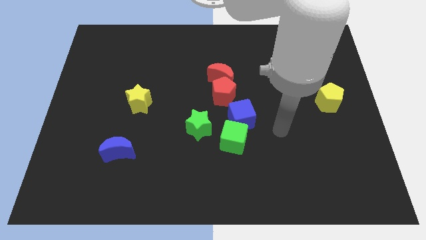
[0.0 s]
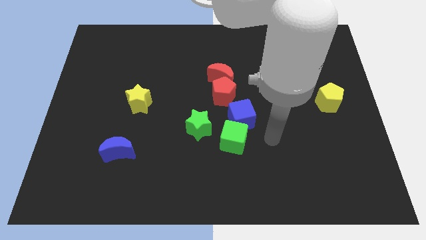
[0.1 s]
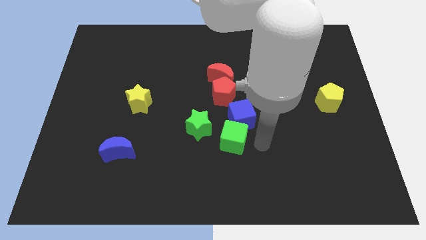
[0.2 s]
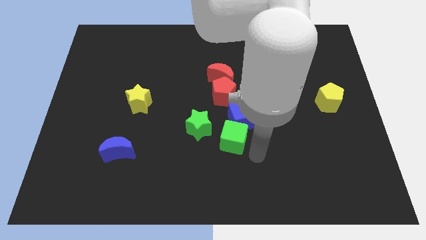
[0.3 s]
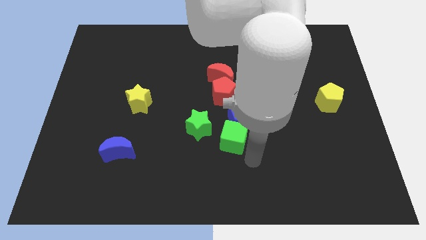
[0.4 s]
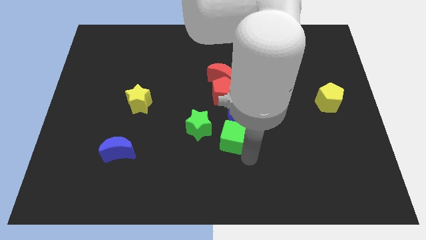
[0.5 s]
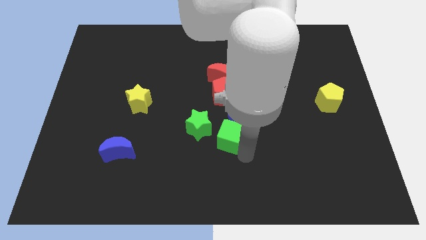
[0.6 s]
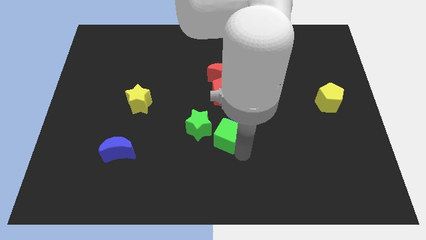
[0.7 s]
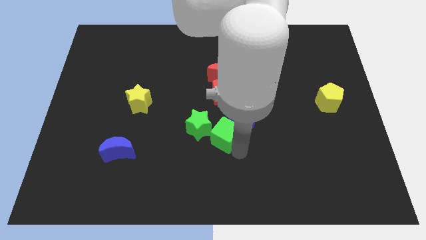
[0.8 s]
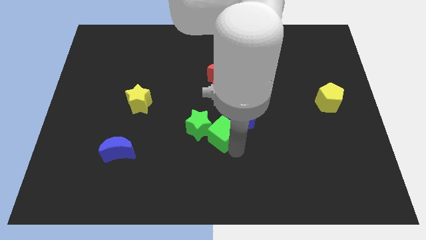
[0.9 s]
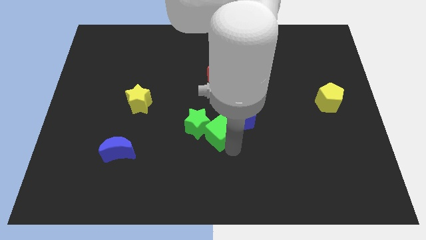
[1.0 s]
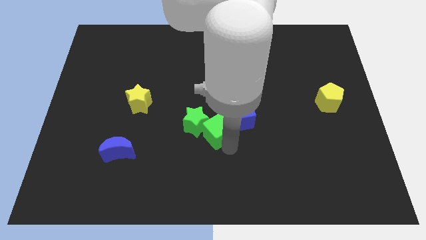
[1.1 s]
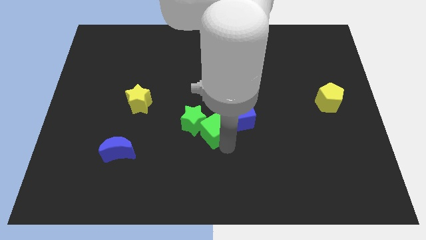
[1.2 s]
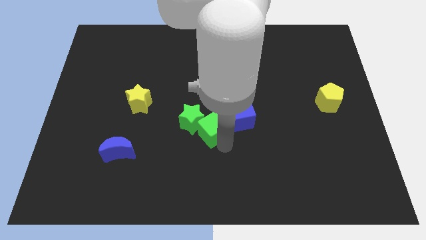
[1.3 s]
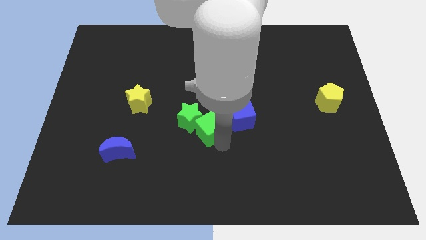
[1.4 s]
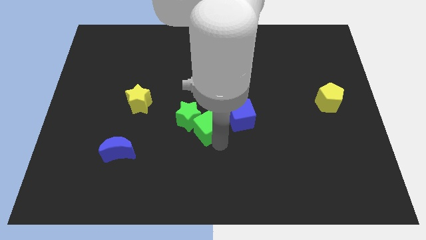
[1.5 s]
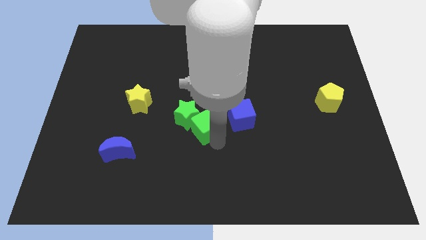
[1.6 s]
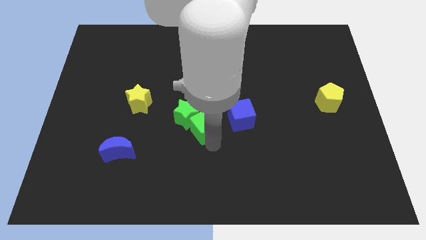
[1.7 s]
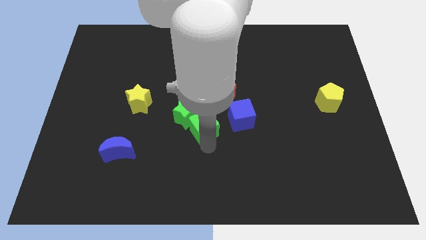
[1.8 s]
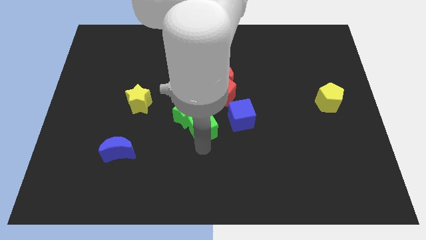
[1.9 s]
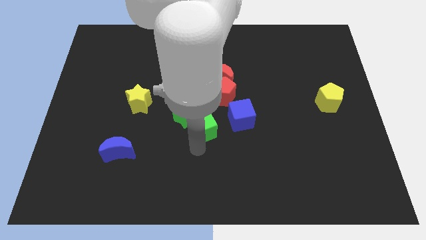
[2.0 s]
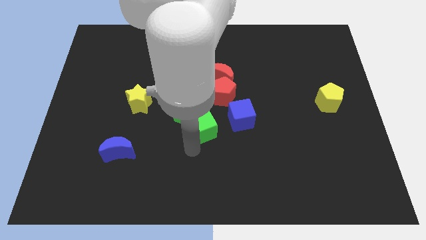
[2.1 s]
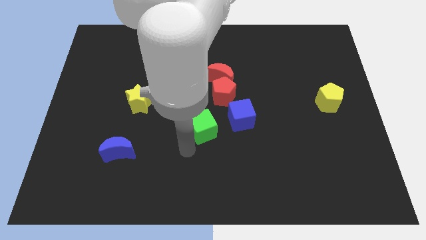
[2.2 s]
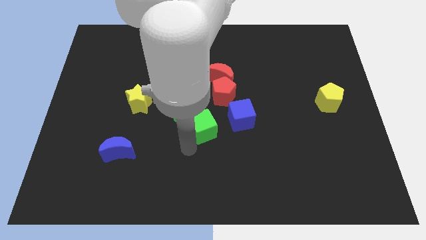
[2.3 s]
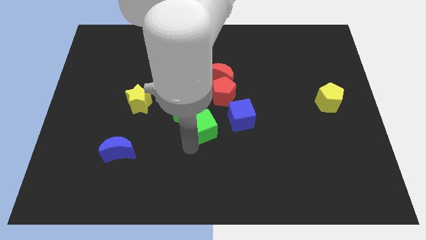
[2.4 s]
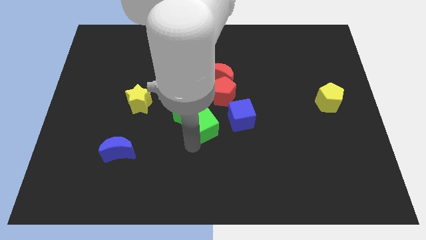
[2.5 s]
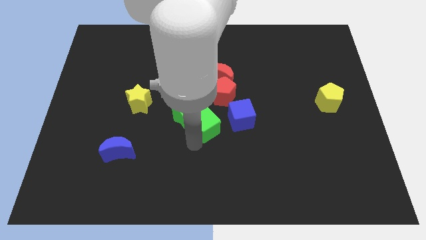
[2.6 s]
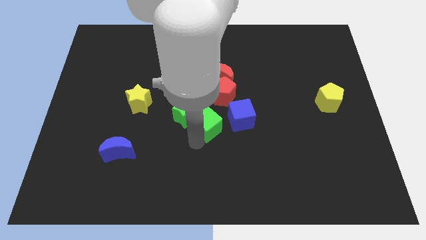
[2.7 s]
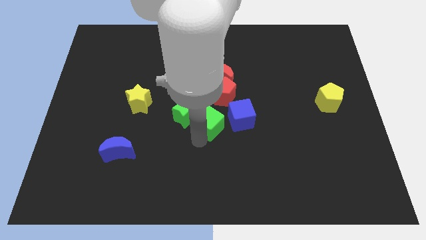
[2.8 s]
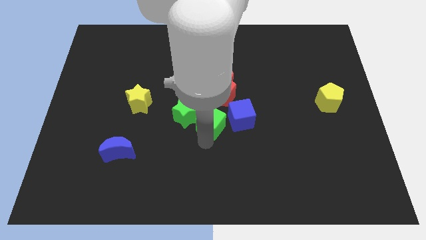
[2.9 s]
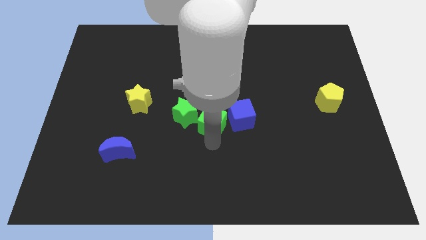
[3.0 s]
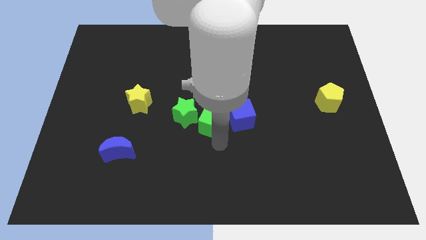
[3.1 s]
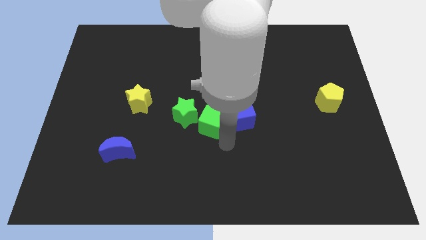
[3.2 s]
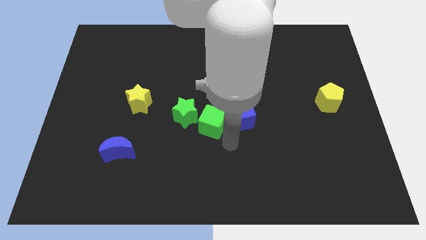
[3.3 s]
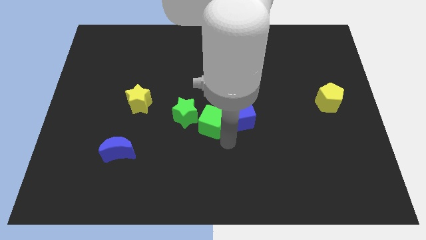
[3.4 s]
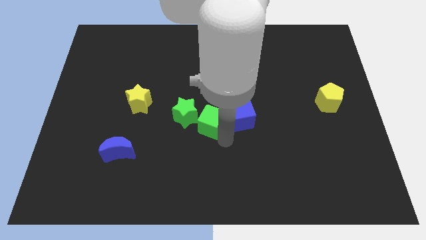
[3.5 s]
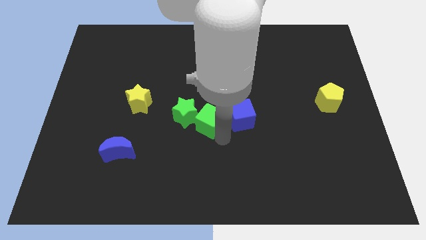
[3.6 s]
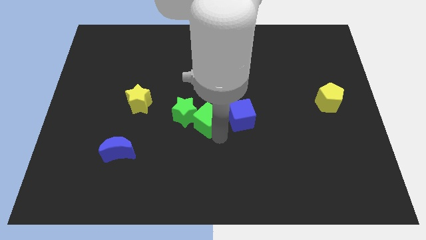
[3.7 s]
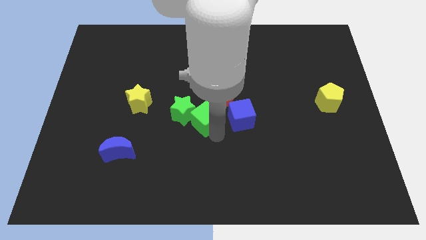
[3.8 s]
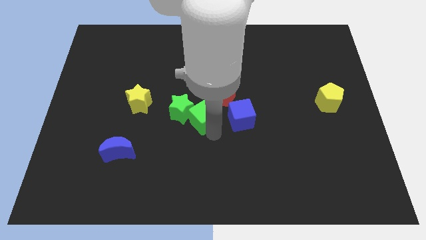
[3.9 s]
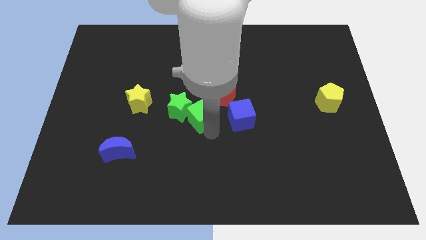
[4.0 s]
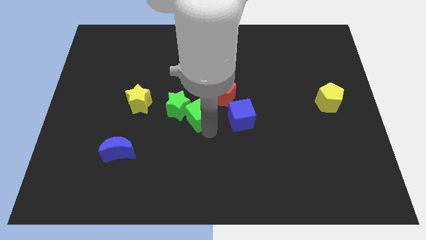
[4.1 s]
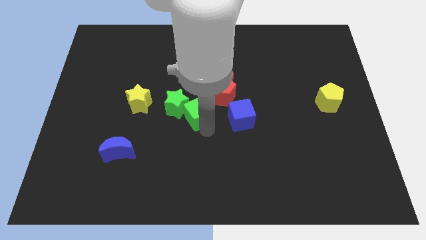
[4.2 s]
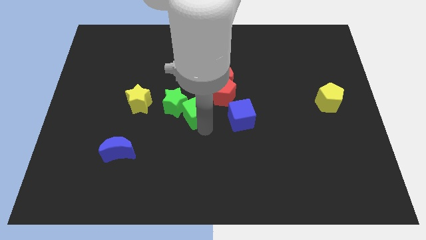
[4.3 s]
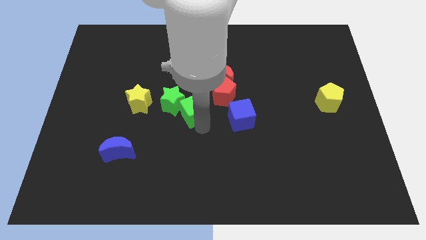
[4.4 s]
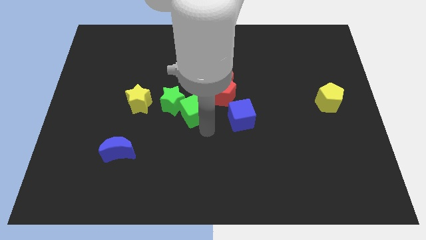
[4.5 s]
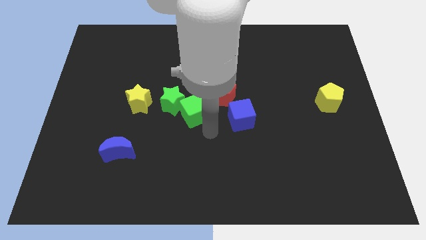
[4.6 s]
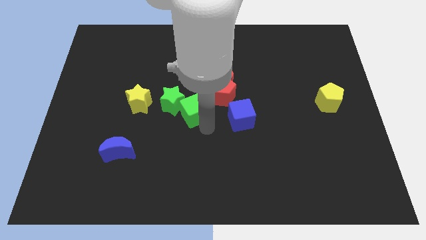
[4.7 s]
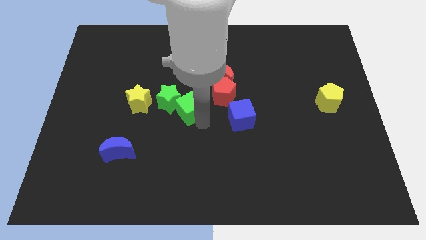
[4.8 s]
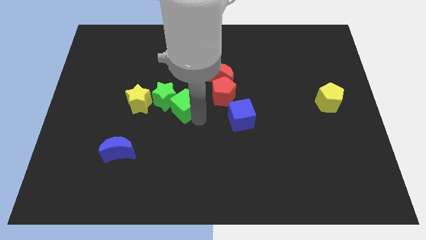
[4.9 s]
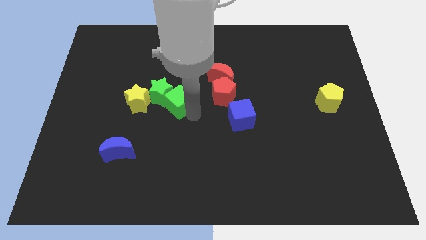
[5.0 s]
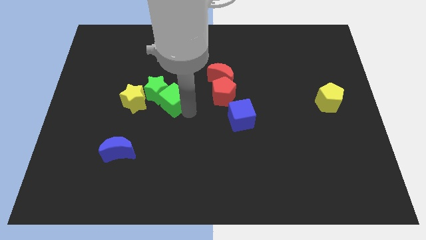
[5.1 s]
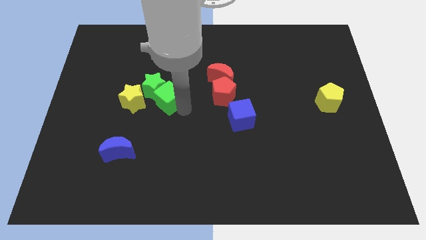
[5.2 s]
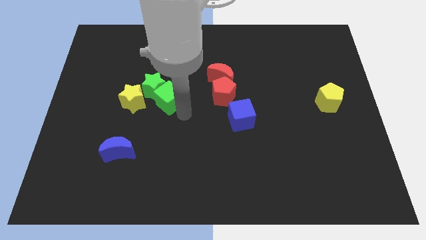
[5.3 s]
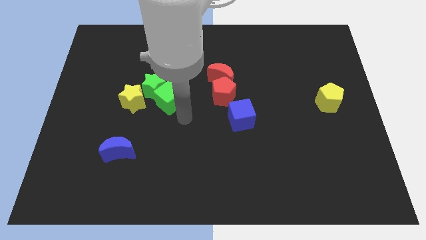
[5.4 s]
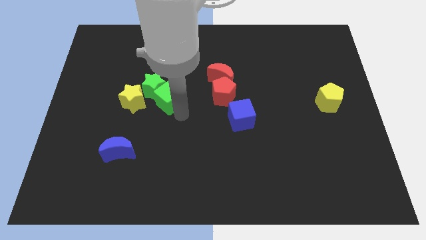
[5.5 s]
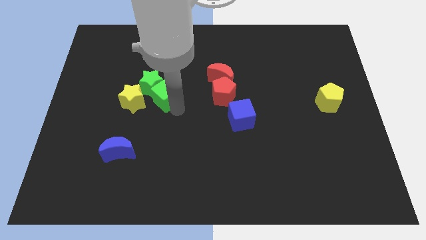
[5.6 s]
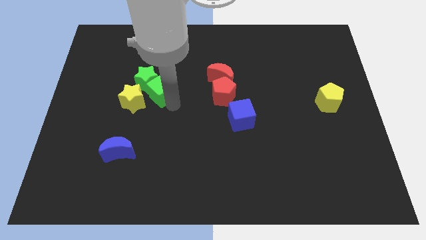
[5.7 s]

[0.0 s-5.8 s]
push the green cube up and left

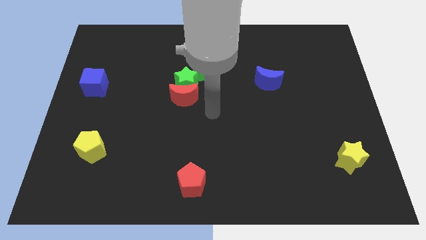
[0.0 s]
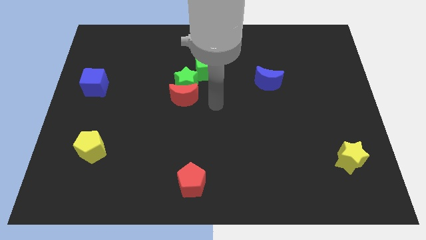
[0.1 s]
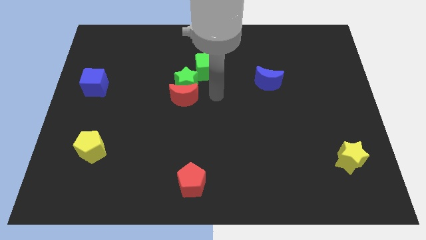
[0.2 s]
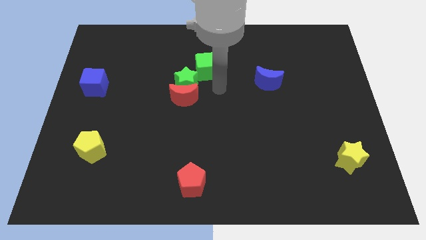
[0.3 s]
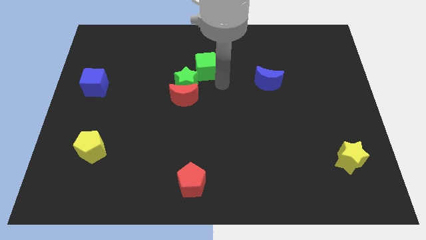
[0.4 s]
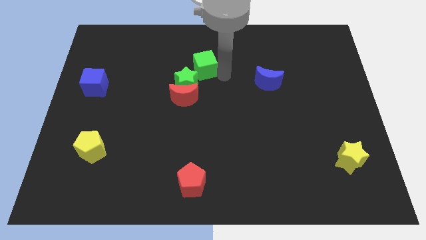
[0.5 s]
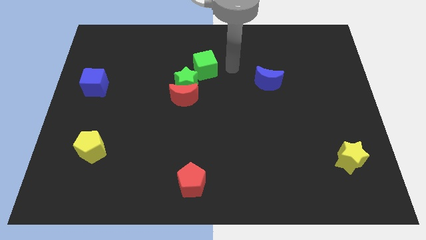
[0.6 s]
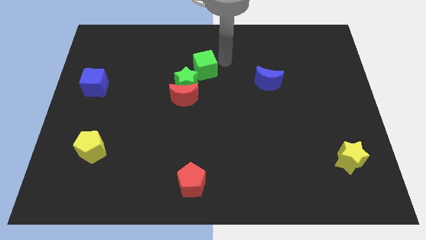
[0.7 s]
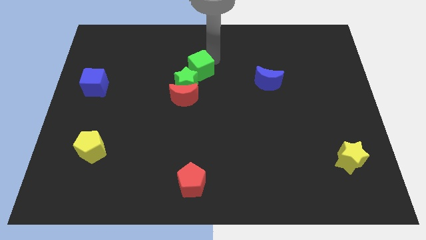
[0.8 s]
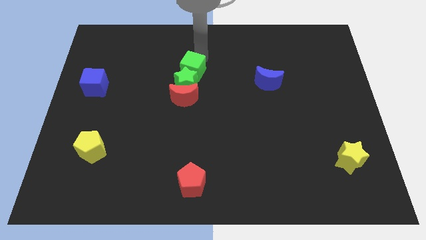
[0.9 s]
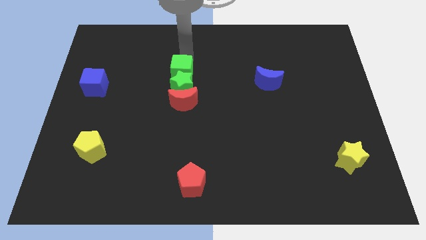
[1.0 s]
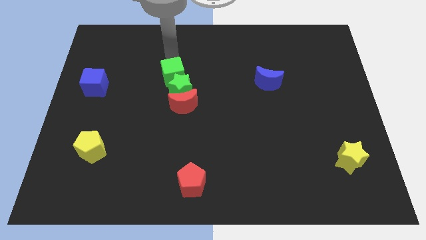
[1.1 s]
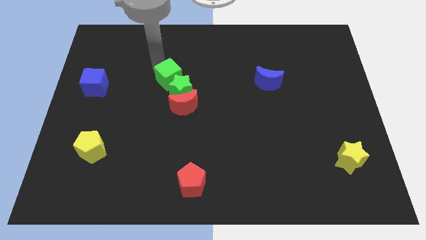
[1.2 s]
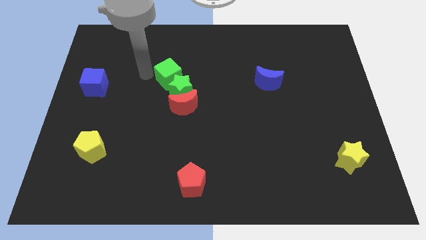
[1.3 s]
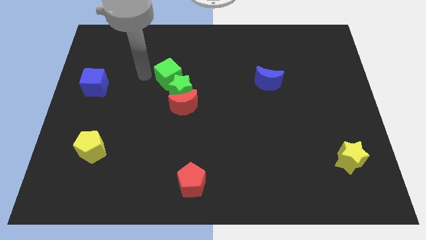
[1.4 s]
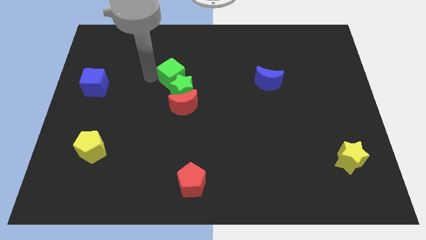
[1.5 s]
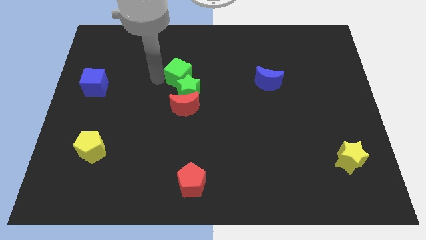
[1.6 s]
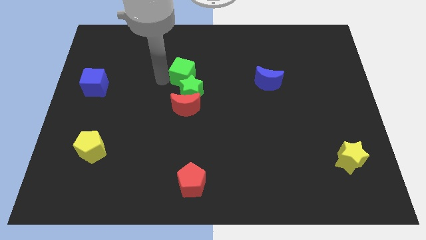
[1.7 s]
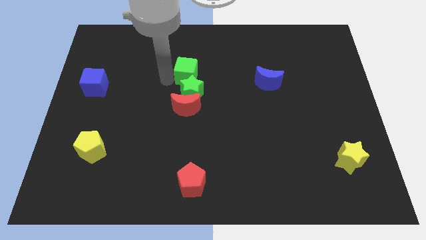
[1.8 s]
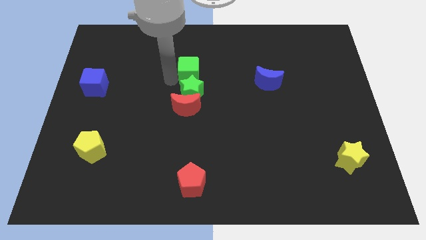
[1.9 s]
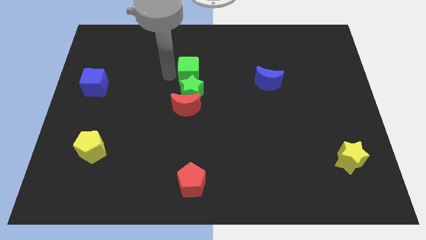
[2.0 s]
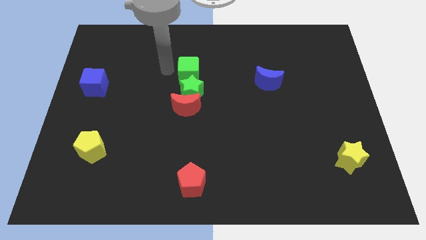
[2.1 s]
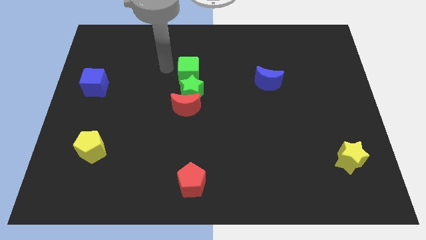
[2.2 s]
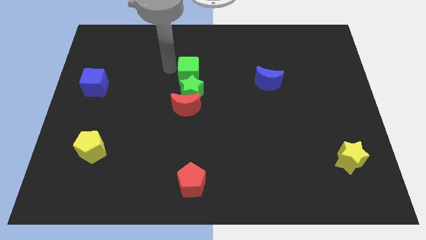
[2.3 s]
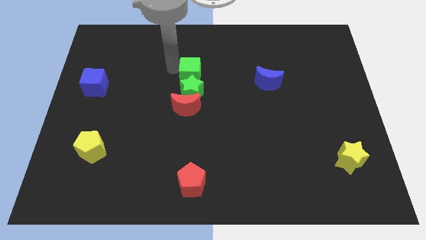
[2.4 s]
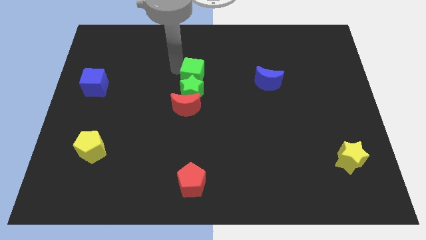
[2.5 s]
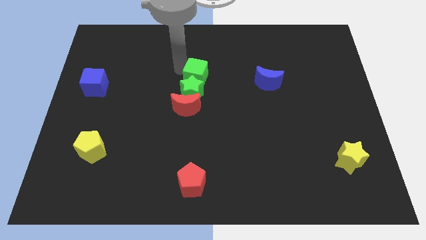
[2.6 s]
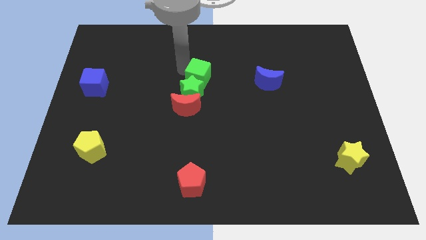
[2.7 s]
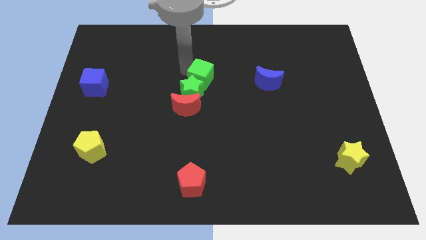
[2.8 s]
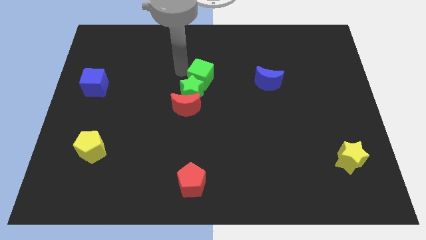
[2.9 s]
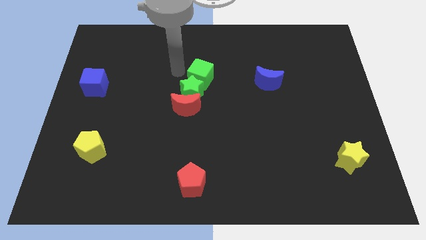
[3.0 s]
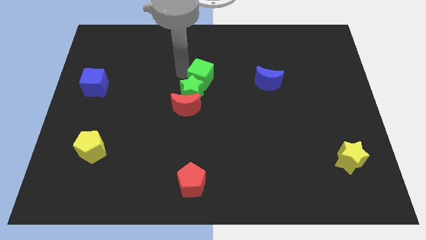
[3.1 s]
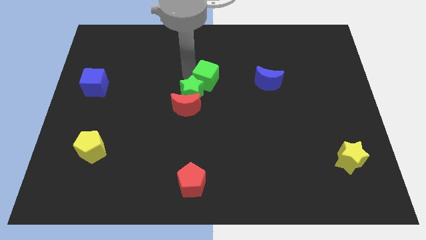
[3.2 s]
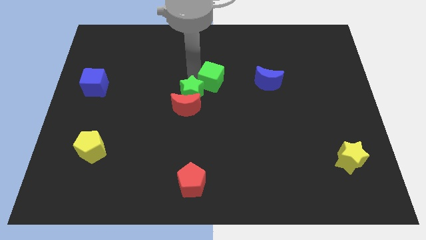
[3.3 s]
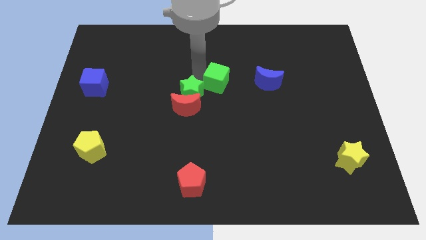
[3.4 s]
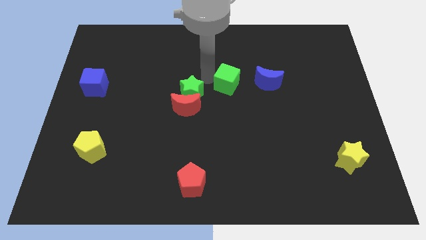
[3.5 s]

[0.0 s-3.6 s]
slightly push the green cube downwards and to the right
